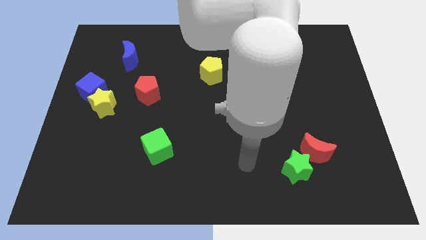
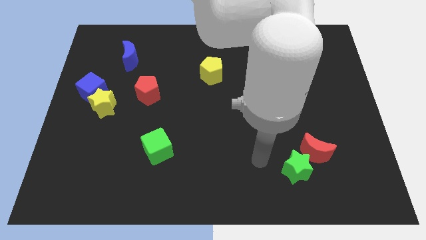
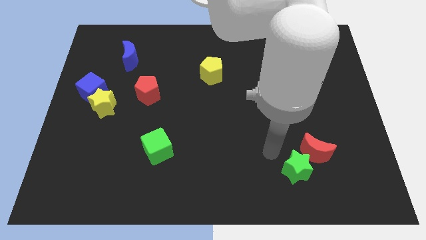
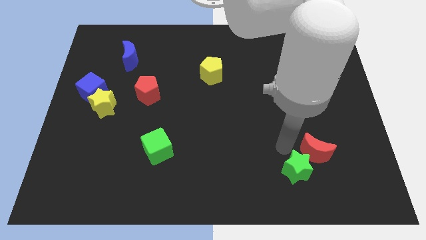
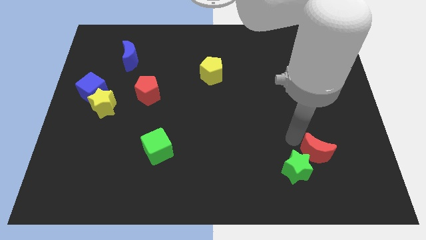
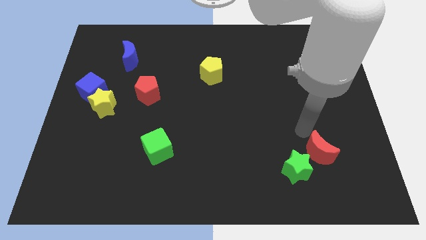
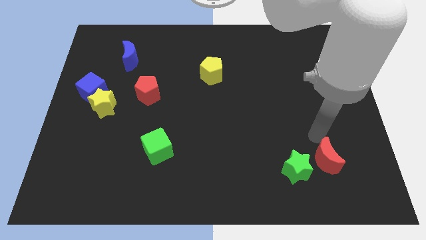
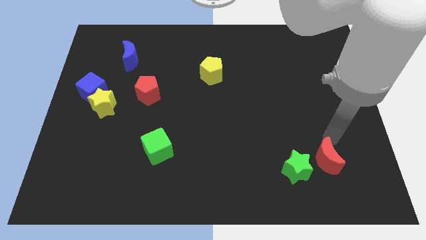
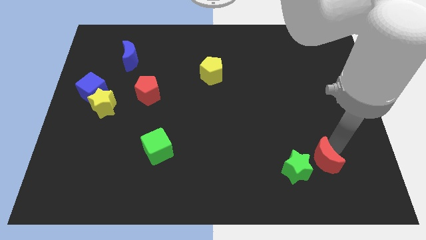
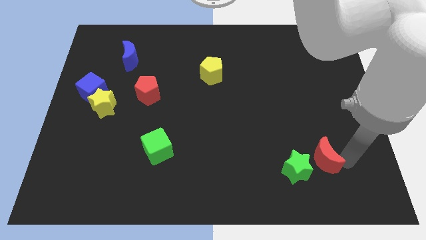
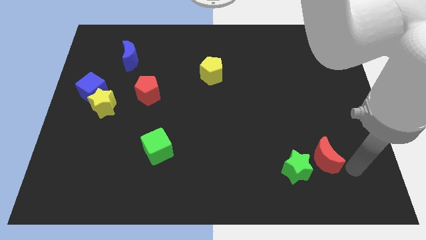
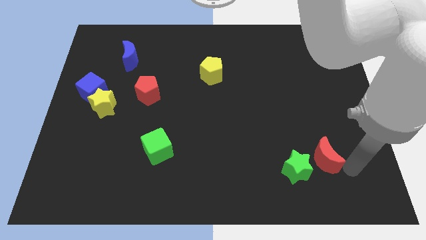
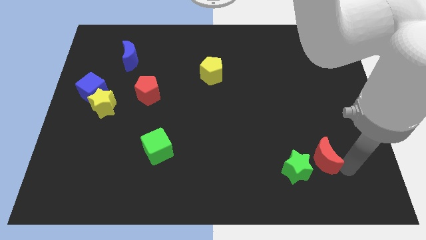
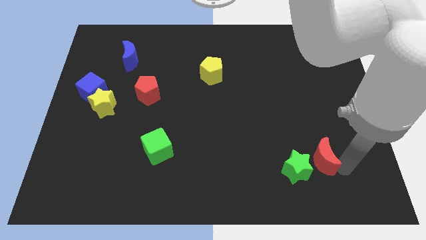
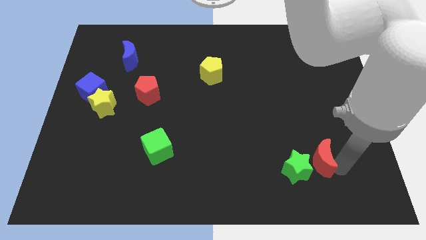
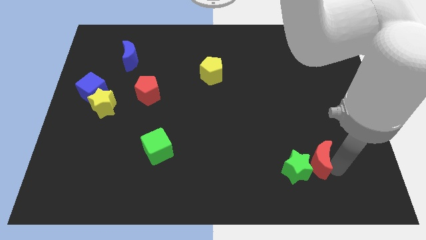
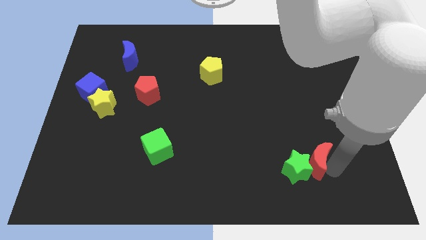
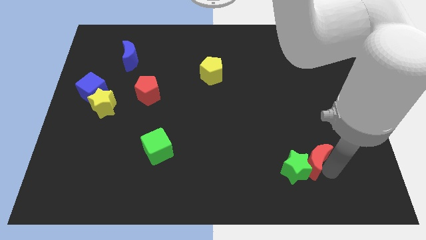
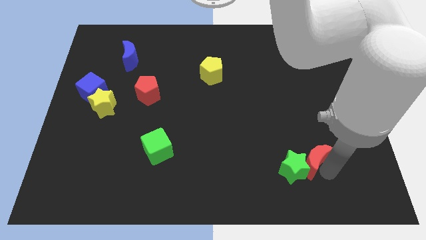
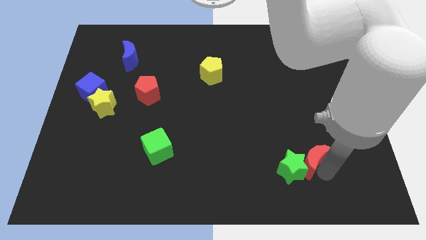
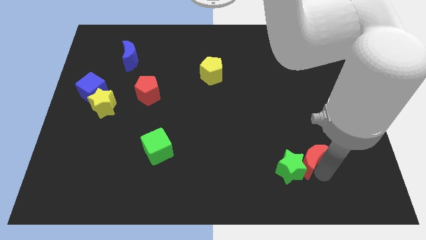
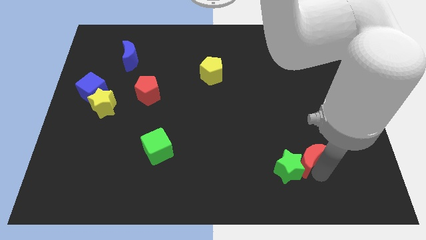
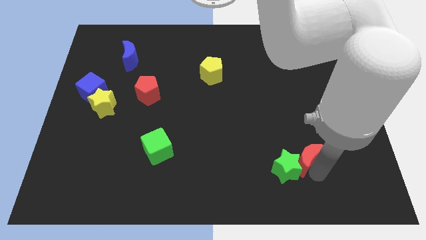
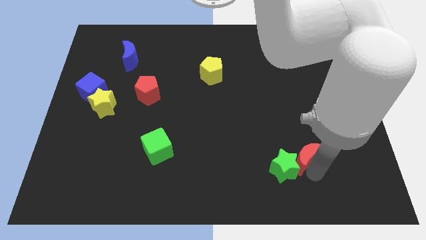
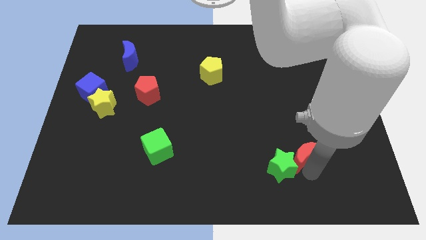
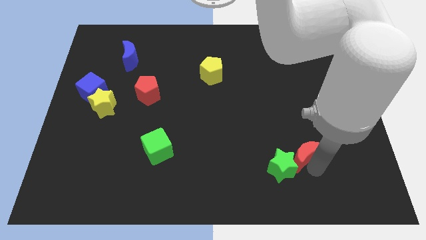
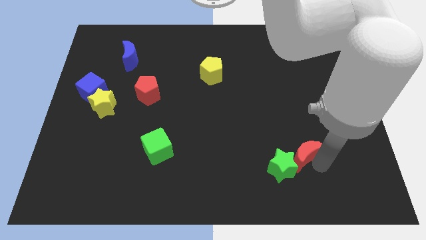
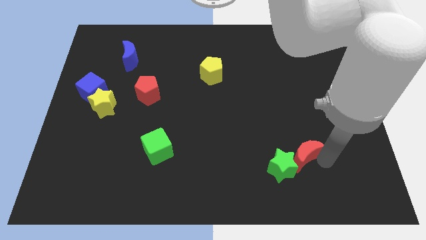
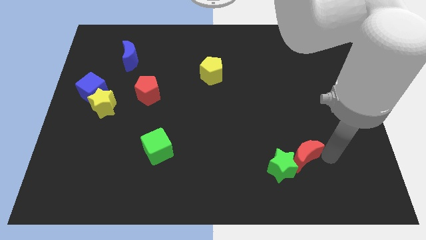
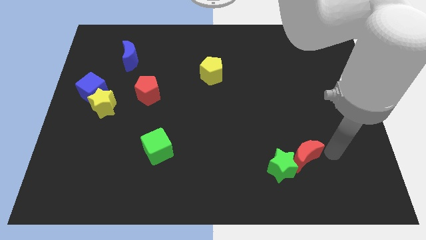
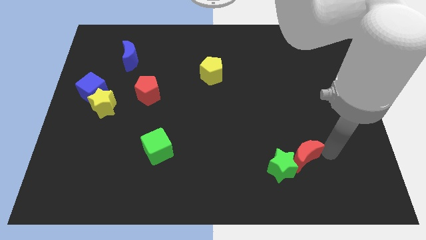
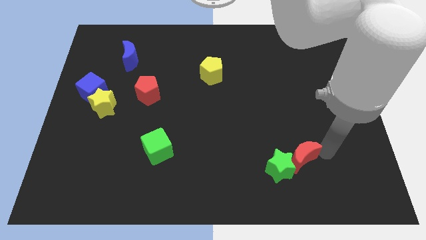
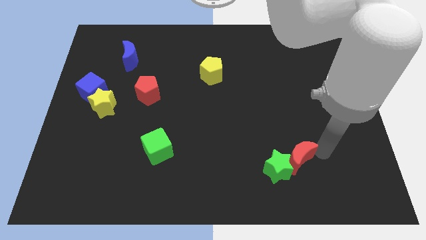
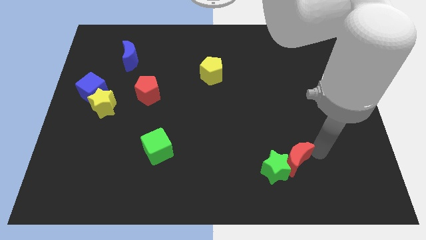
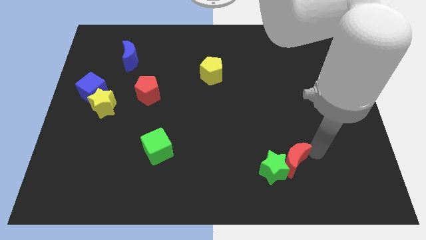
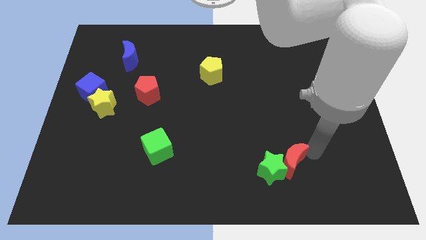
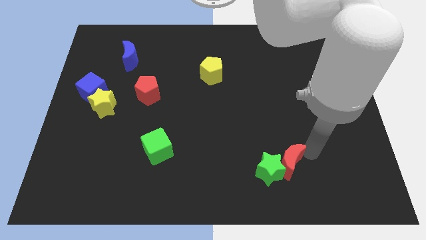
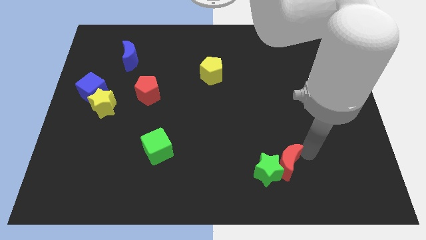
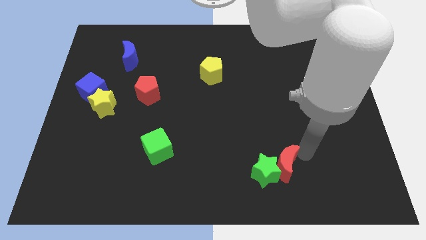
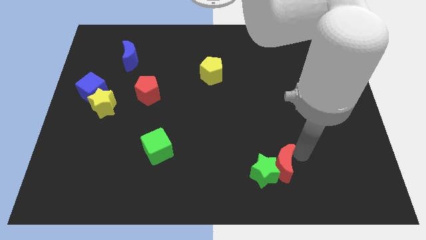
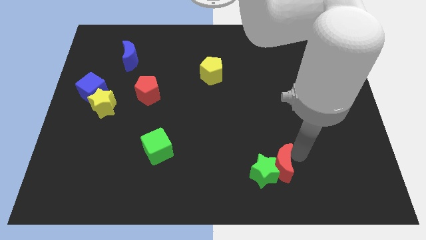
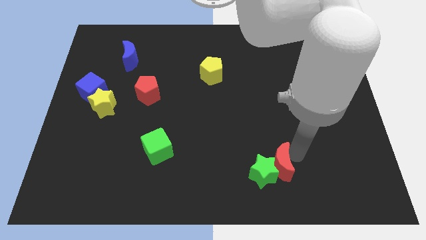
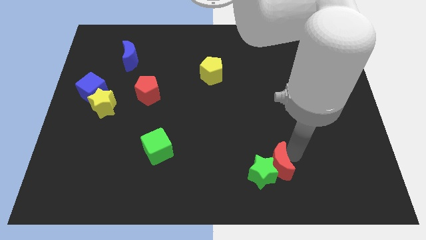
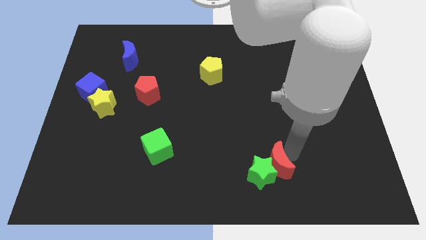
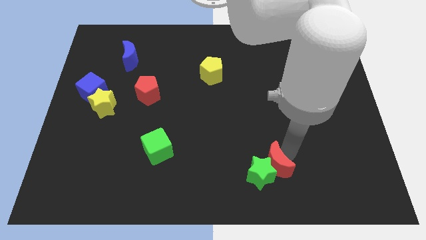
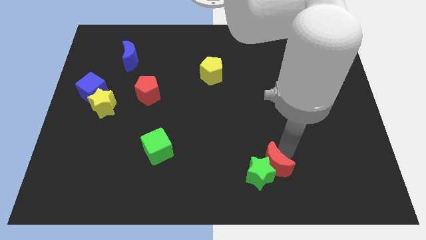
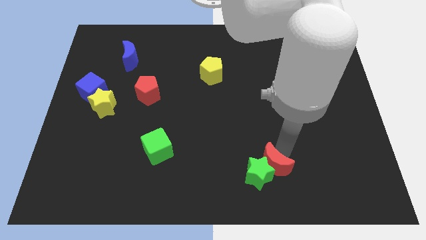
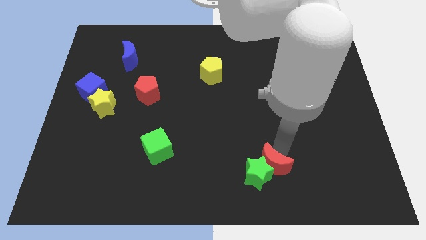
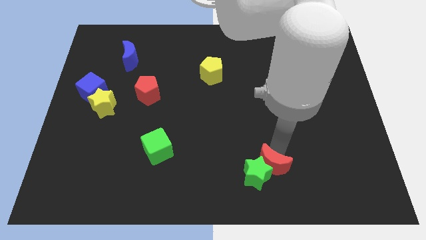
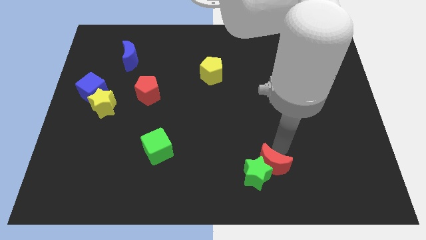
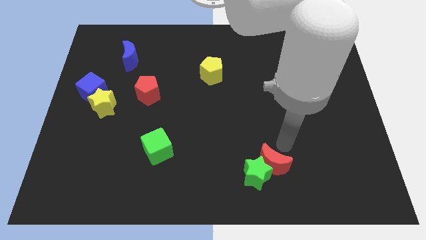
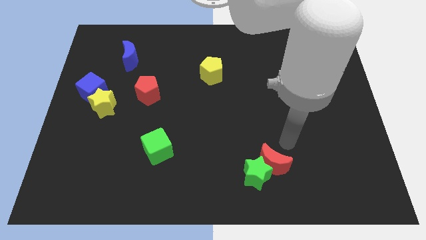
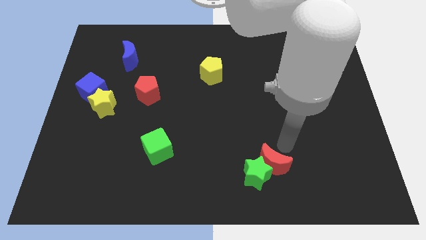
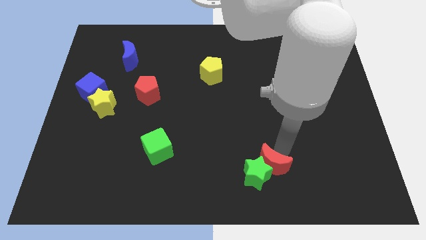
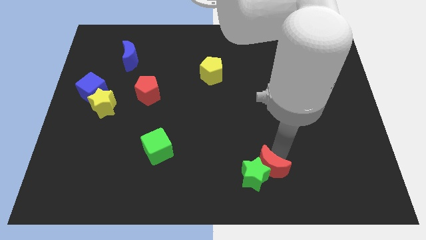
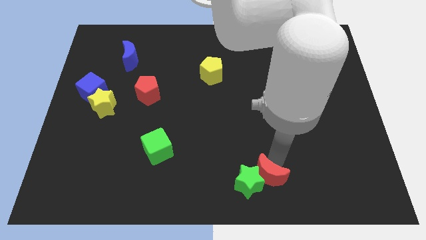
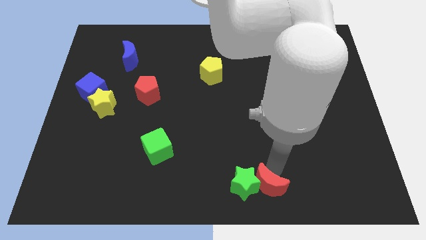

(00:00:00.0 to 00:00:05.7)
slide the red moon to the bottom
